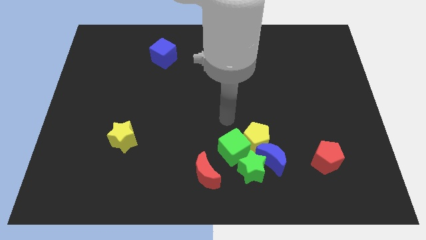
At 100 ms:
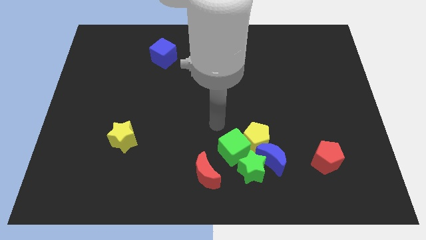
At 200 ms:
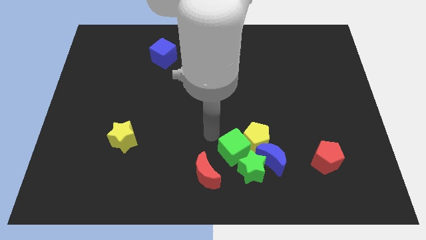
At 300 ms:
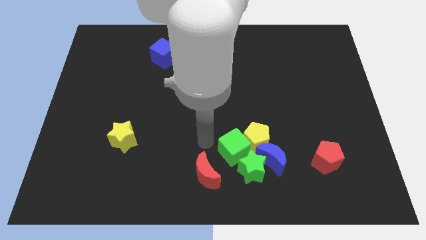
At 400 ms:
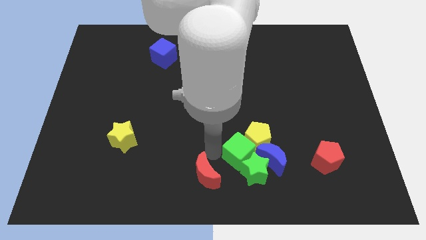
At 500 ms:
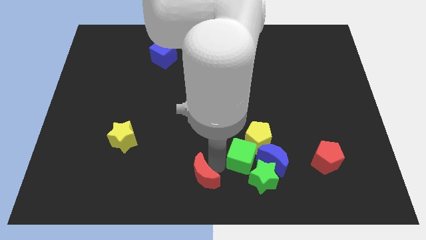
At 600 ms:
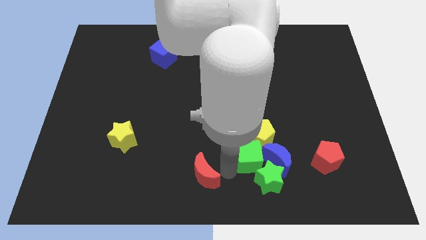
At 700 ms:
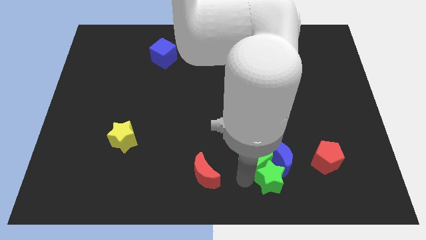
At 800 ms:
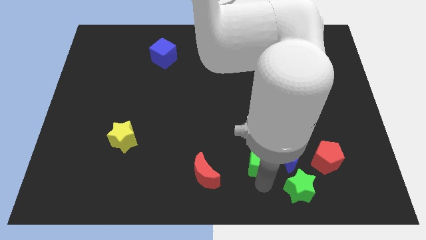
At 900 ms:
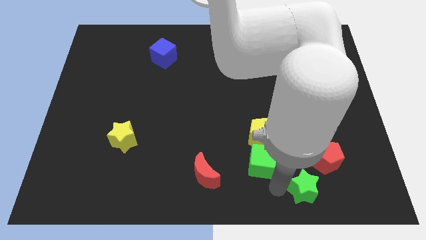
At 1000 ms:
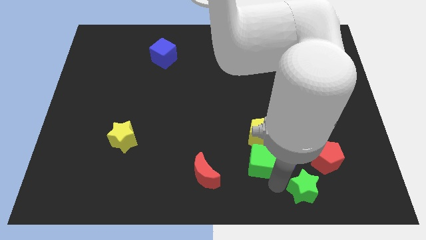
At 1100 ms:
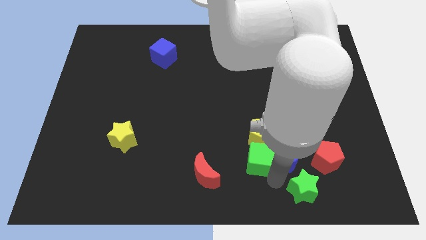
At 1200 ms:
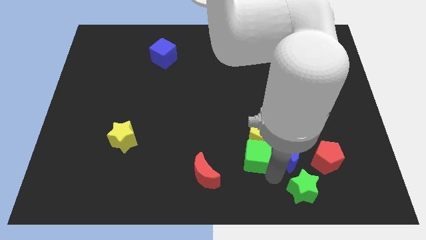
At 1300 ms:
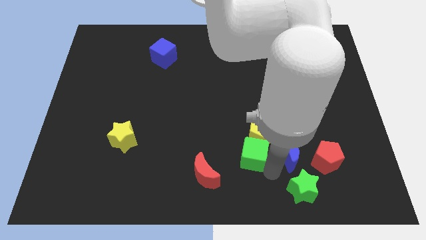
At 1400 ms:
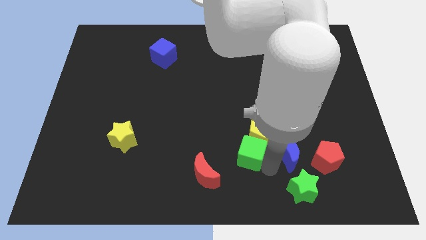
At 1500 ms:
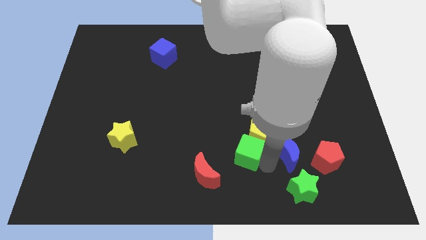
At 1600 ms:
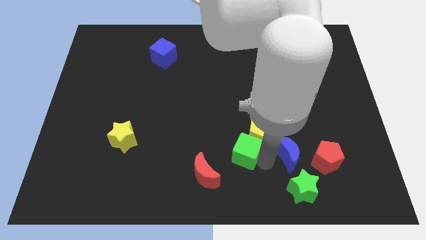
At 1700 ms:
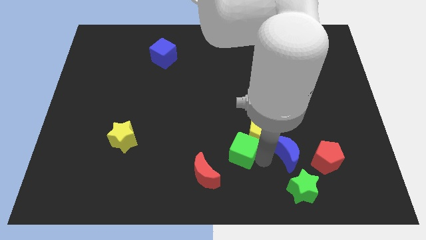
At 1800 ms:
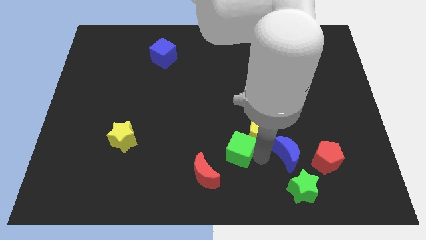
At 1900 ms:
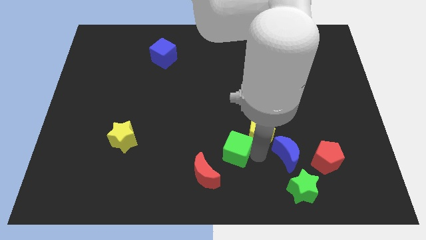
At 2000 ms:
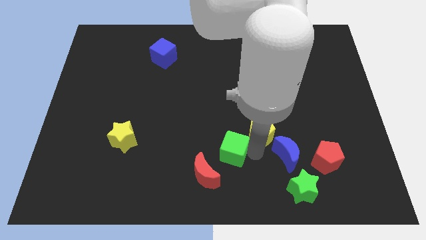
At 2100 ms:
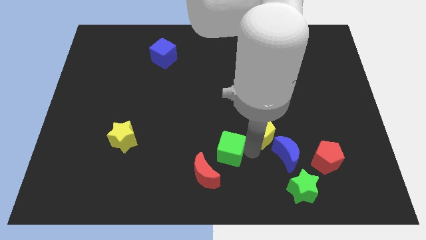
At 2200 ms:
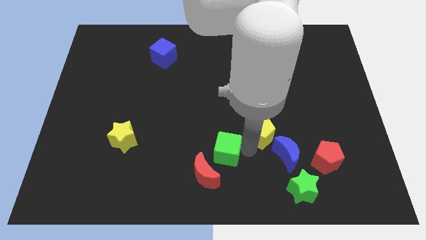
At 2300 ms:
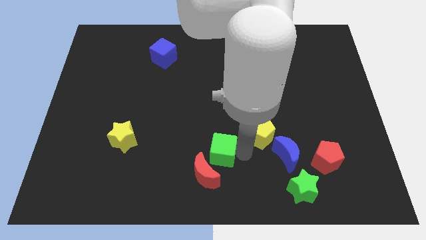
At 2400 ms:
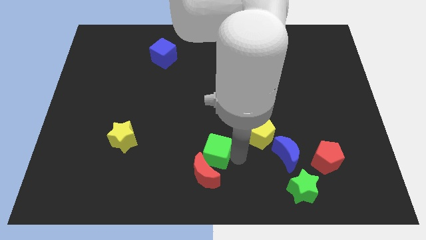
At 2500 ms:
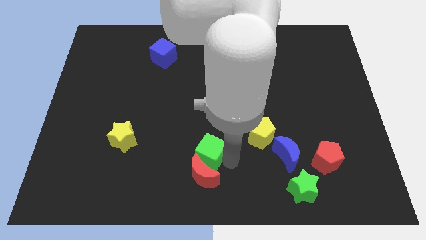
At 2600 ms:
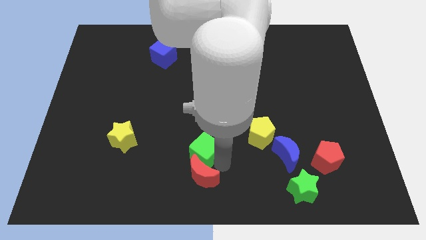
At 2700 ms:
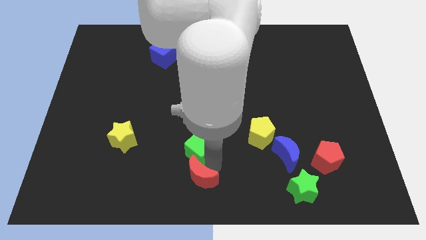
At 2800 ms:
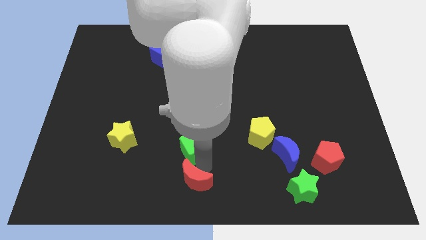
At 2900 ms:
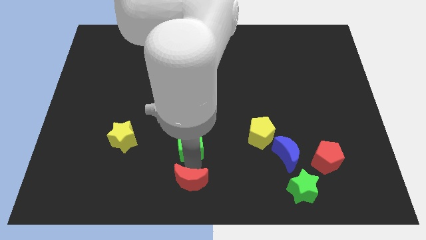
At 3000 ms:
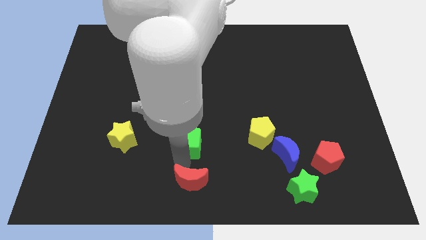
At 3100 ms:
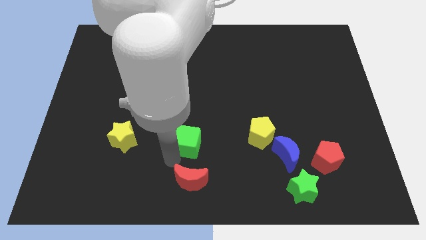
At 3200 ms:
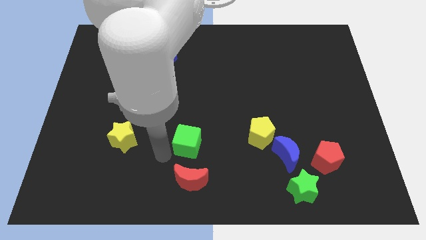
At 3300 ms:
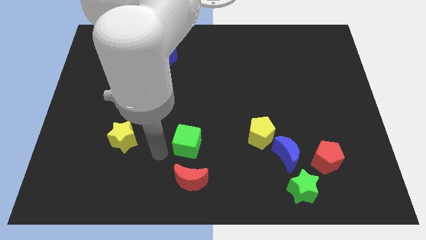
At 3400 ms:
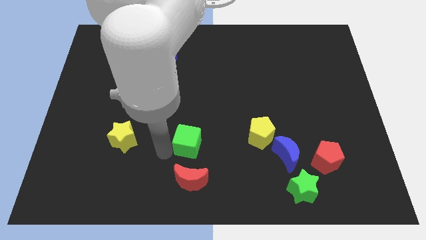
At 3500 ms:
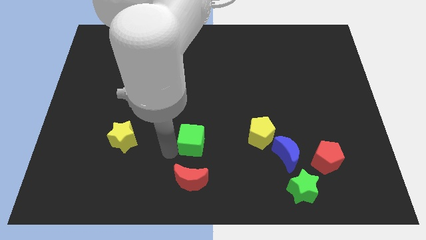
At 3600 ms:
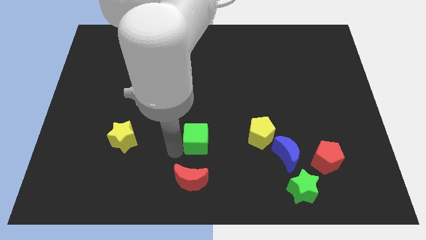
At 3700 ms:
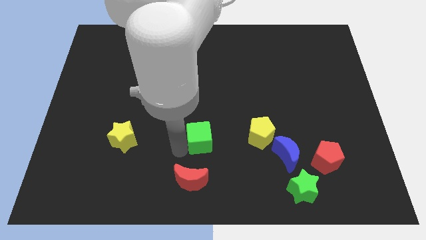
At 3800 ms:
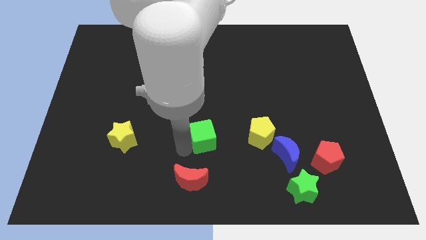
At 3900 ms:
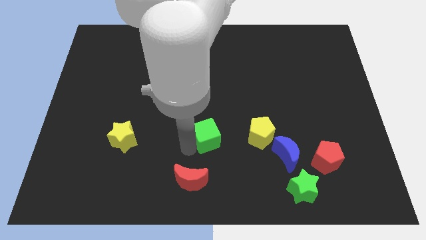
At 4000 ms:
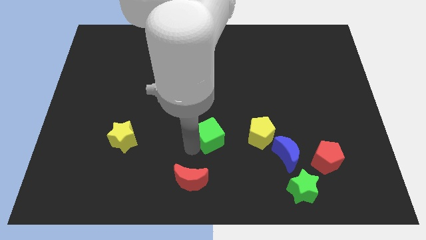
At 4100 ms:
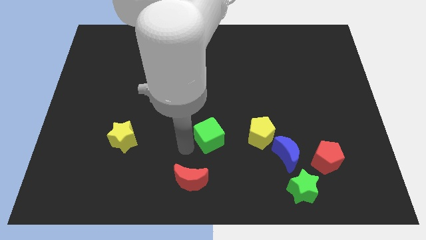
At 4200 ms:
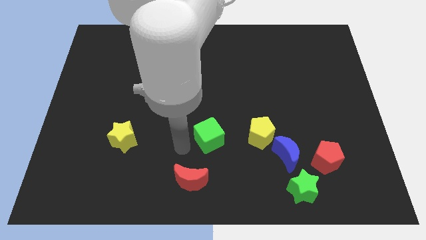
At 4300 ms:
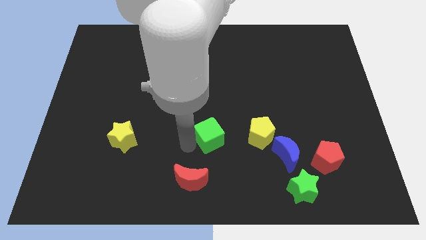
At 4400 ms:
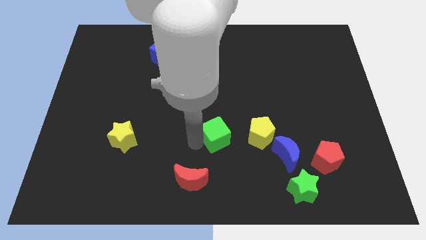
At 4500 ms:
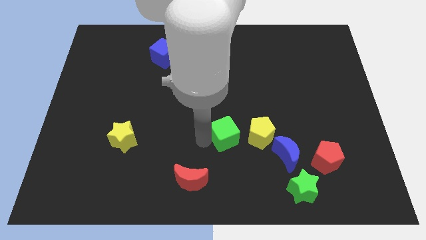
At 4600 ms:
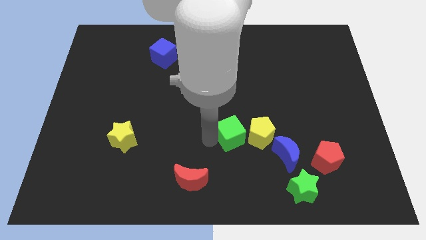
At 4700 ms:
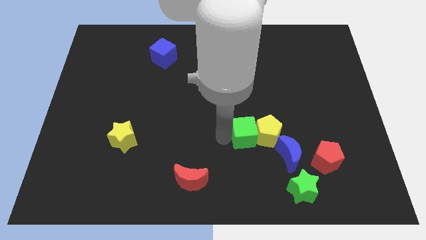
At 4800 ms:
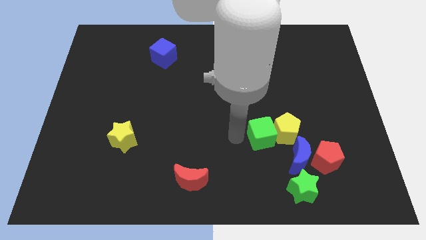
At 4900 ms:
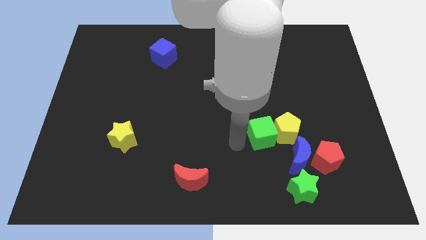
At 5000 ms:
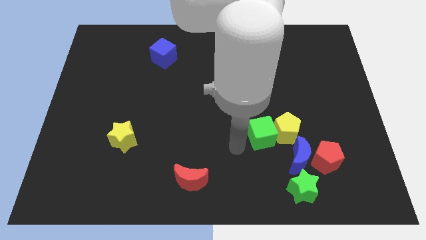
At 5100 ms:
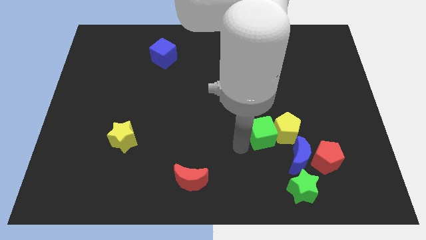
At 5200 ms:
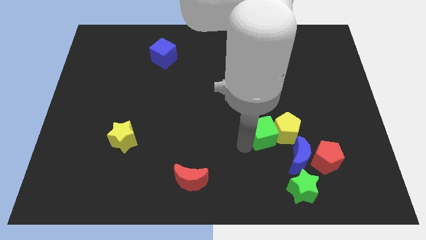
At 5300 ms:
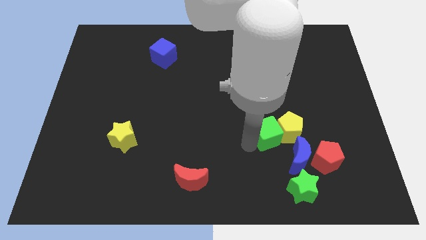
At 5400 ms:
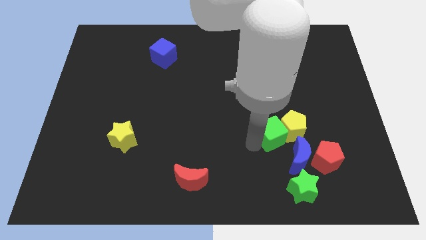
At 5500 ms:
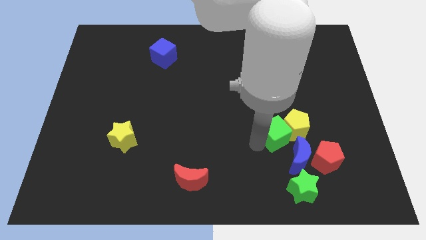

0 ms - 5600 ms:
move the green cube above the blue moon

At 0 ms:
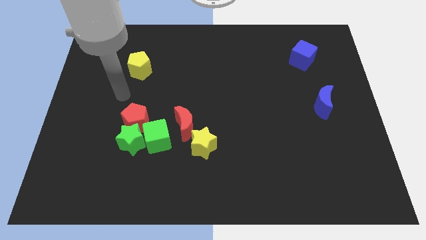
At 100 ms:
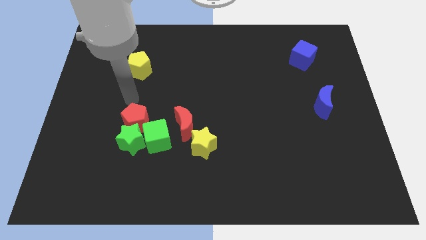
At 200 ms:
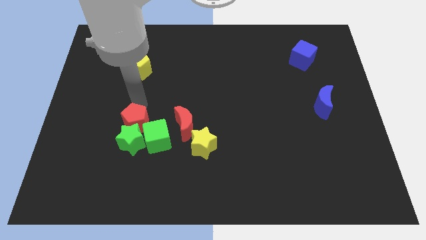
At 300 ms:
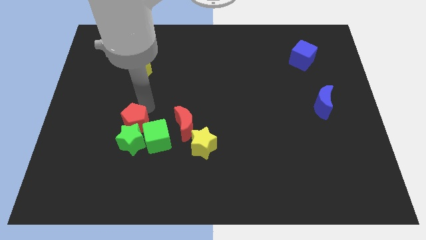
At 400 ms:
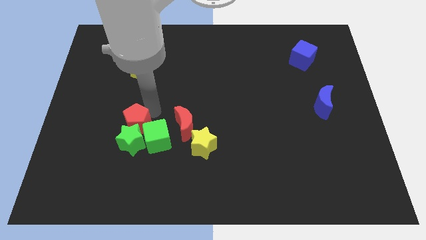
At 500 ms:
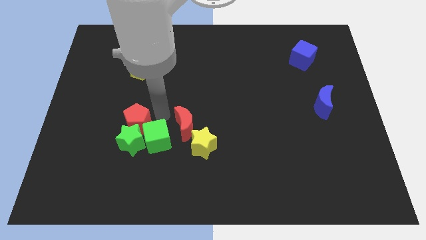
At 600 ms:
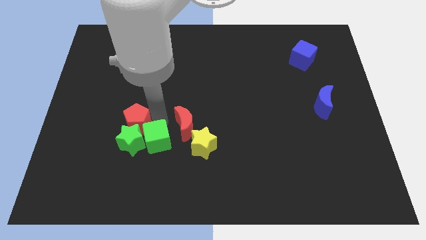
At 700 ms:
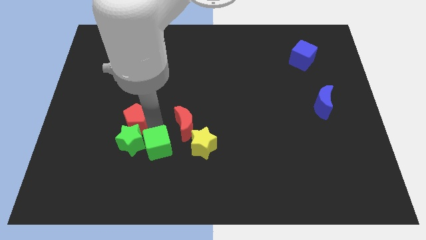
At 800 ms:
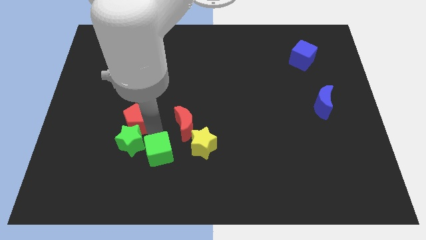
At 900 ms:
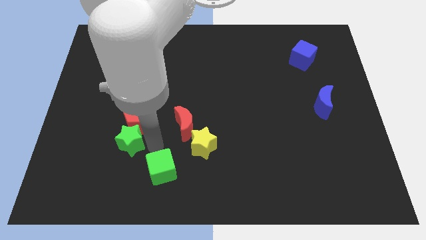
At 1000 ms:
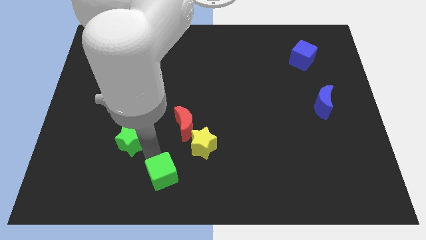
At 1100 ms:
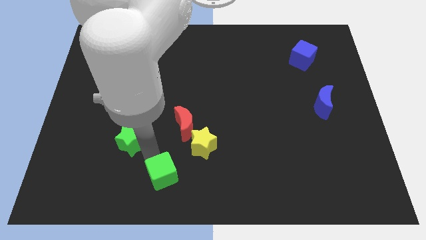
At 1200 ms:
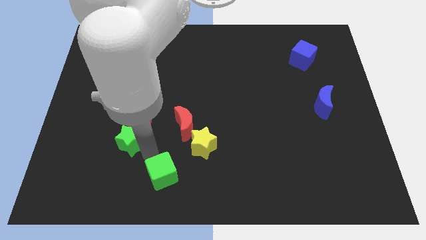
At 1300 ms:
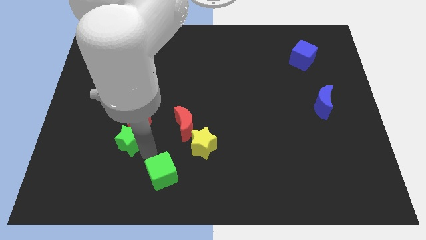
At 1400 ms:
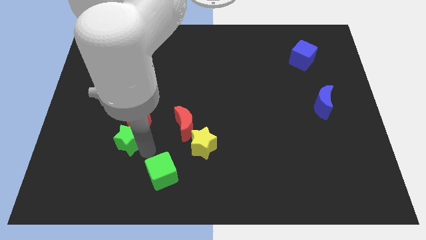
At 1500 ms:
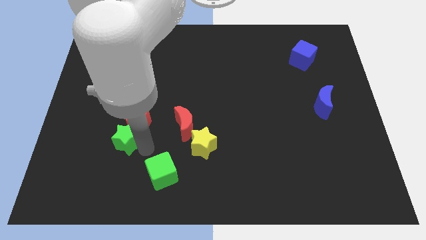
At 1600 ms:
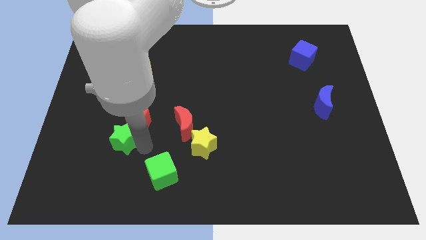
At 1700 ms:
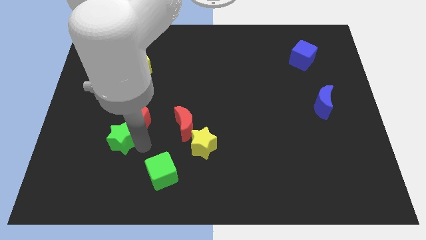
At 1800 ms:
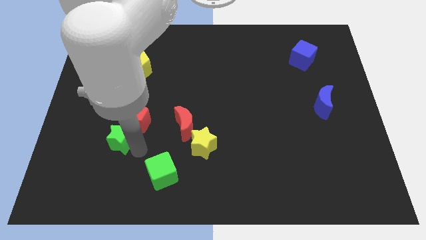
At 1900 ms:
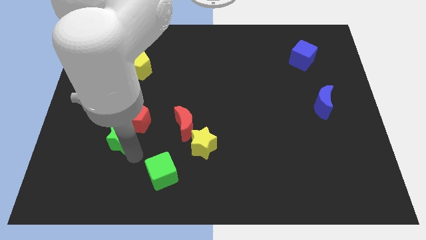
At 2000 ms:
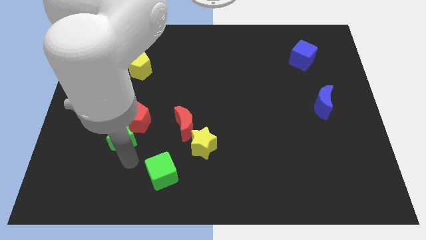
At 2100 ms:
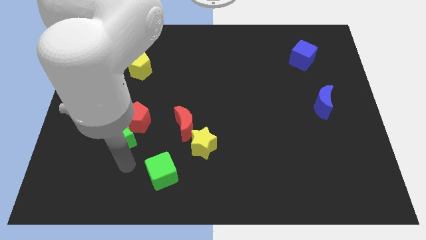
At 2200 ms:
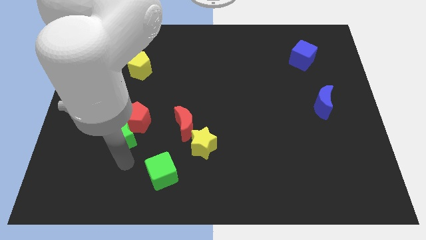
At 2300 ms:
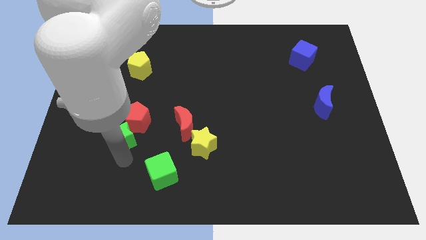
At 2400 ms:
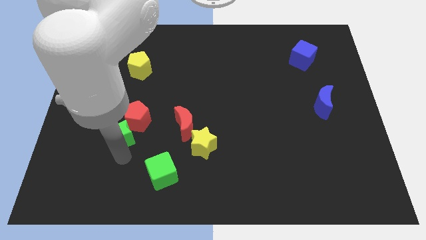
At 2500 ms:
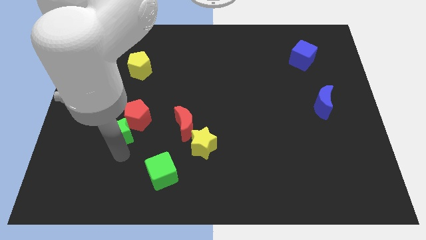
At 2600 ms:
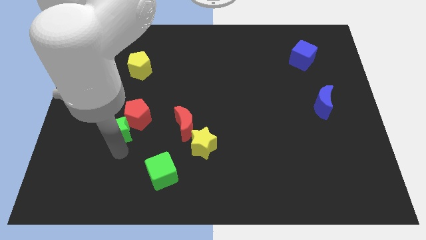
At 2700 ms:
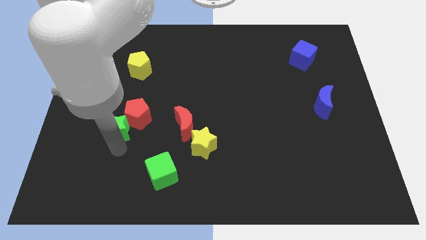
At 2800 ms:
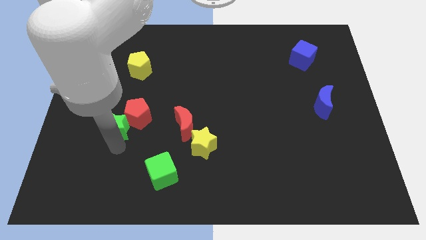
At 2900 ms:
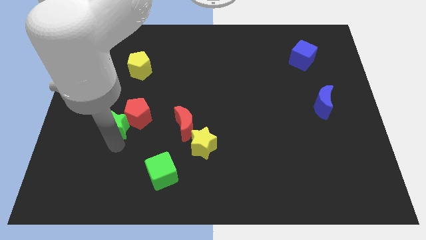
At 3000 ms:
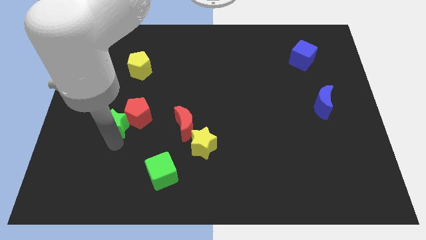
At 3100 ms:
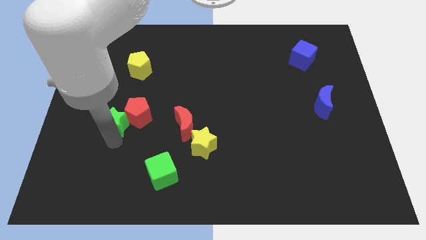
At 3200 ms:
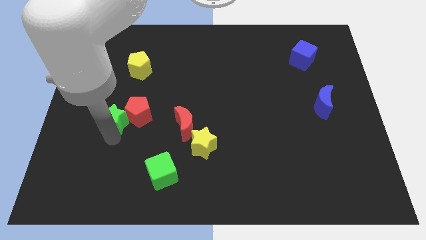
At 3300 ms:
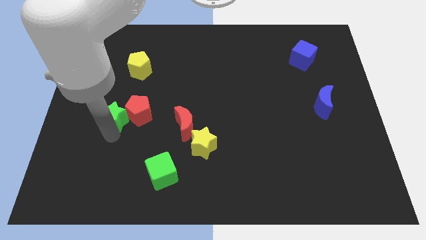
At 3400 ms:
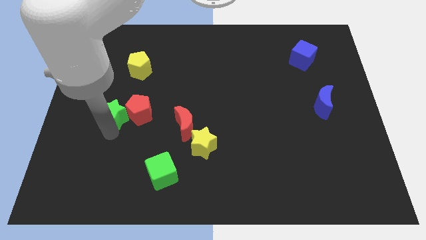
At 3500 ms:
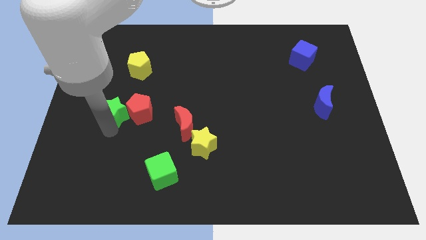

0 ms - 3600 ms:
move the green star to the bottom of the yellow pentagon
